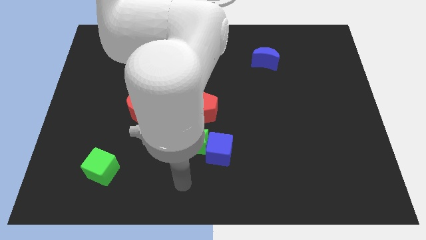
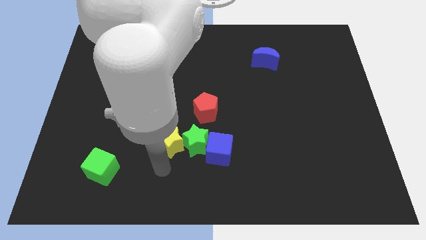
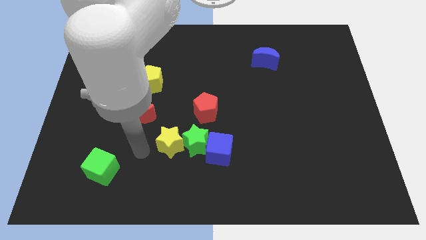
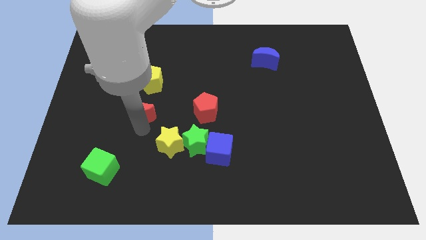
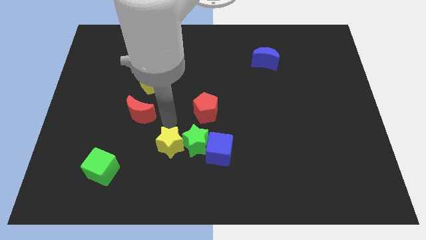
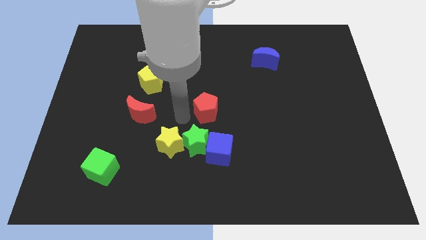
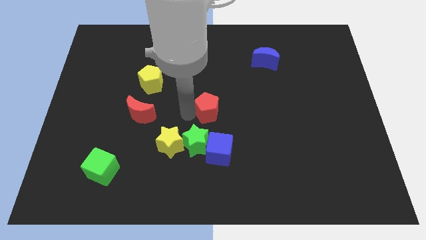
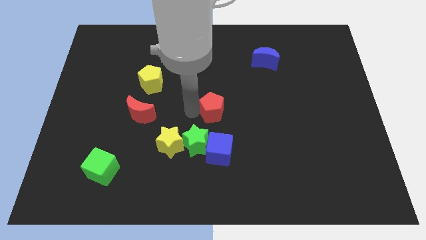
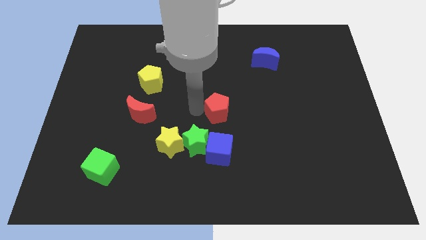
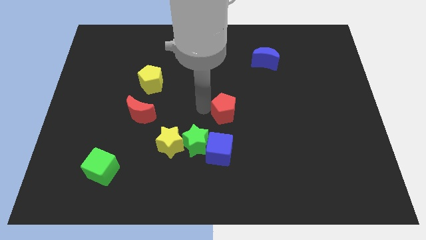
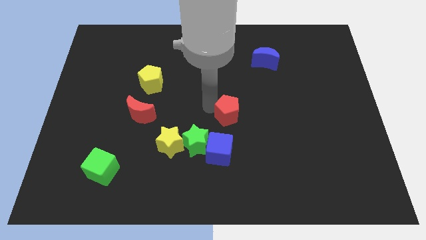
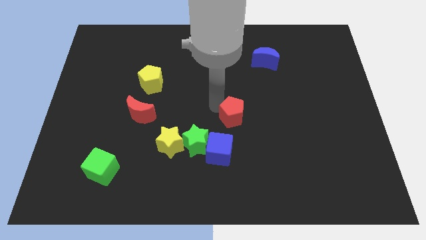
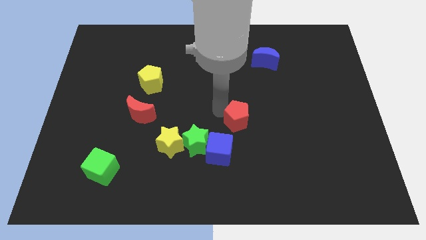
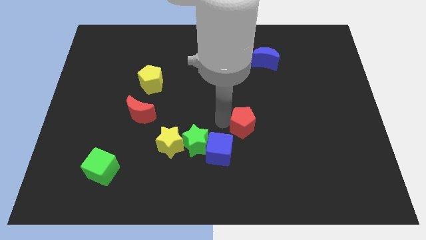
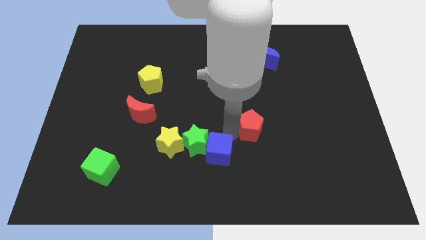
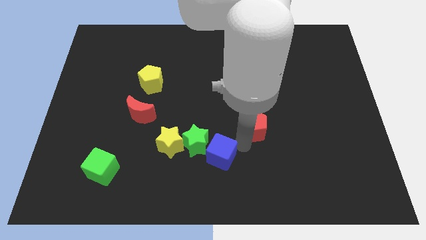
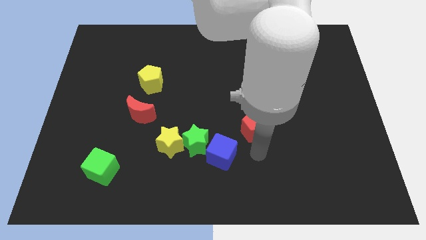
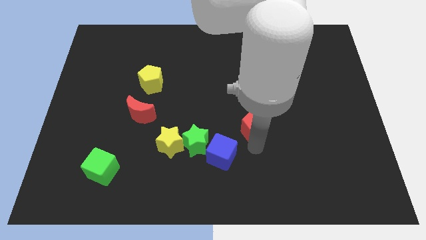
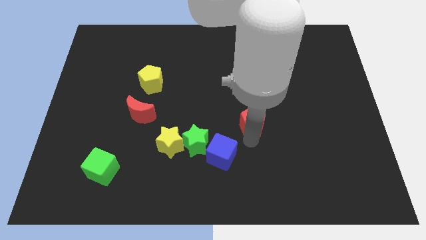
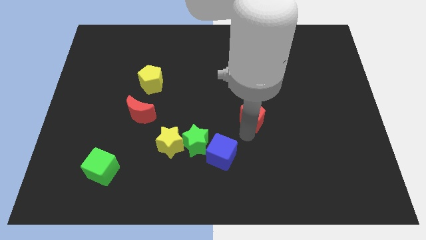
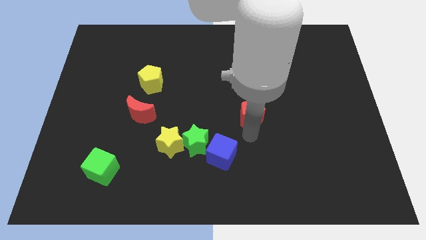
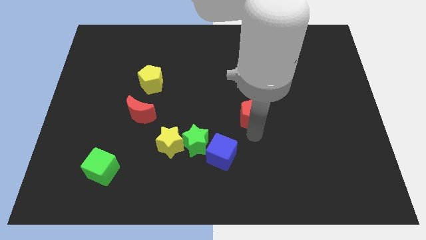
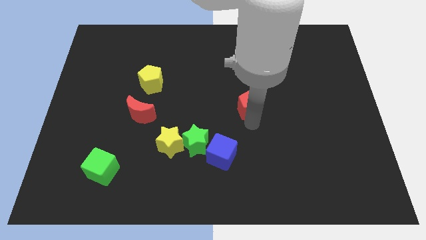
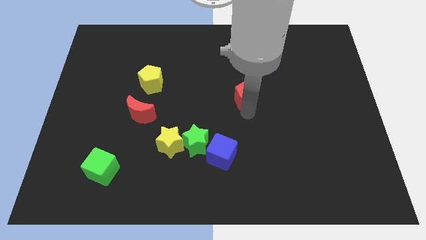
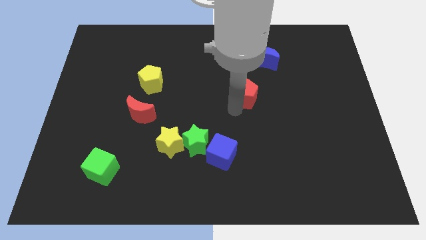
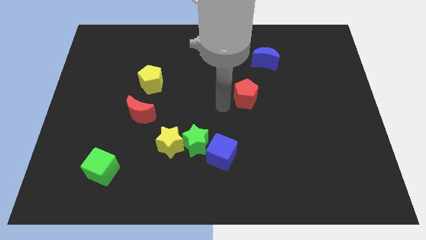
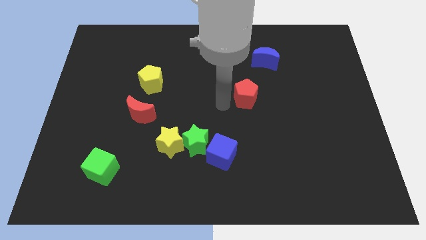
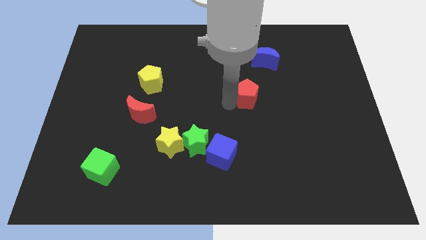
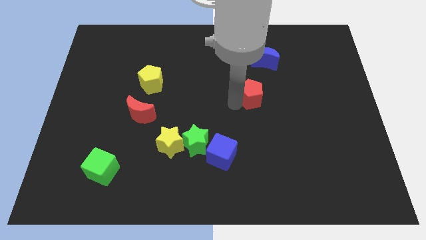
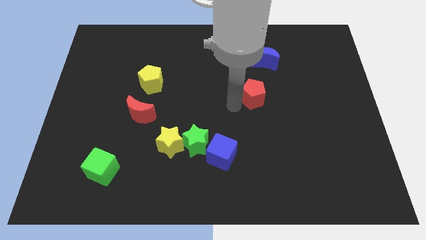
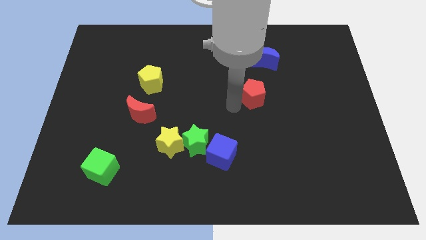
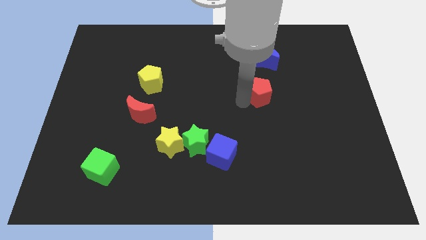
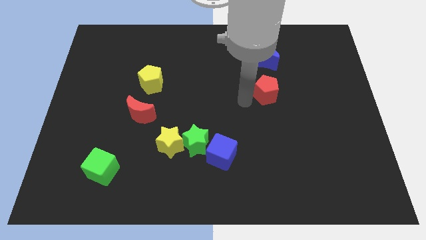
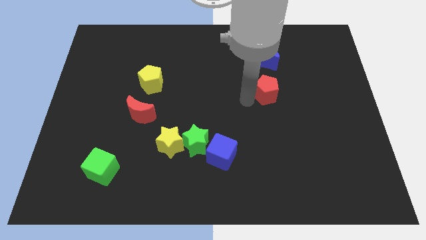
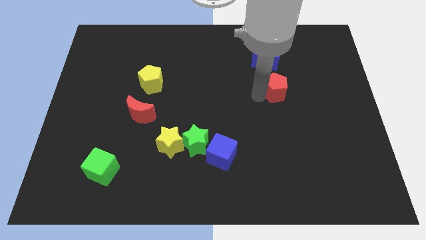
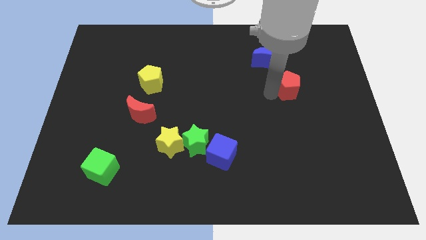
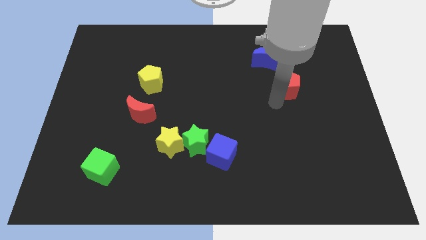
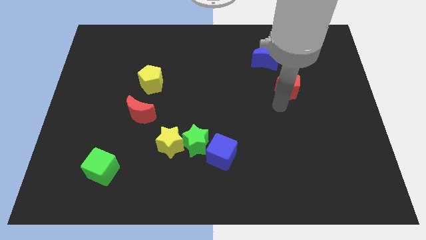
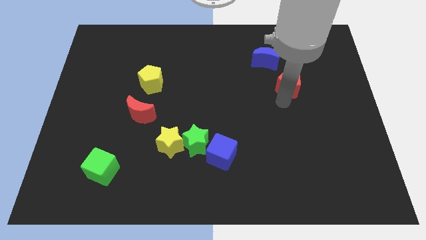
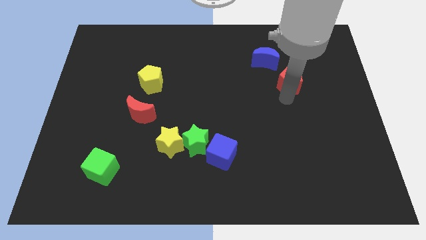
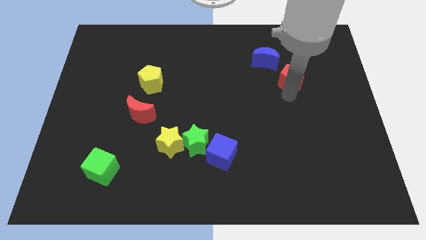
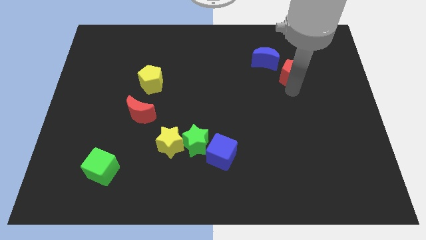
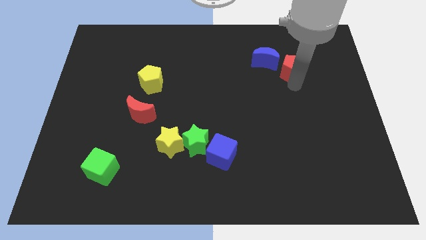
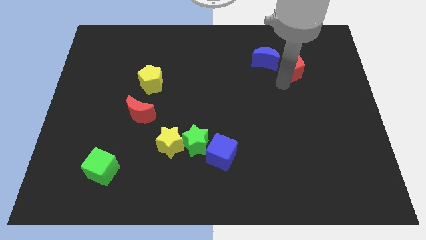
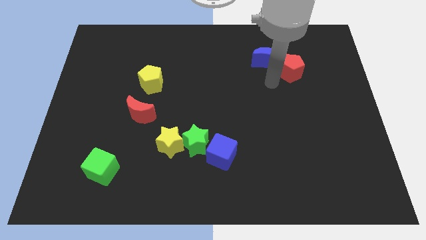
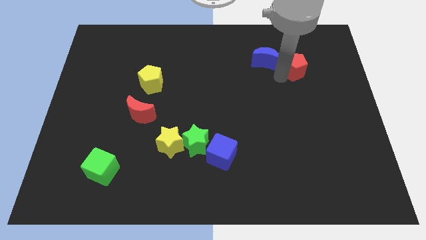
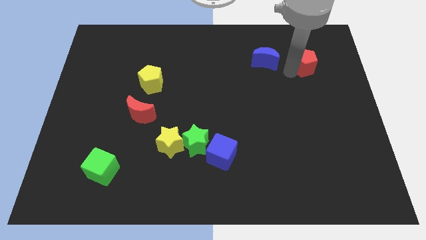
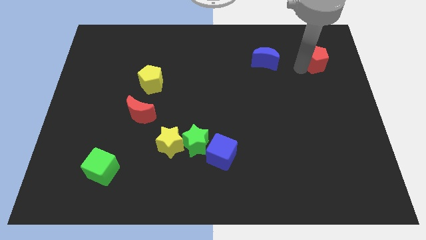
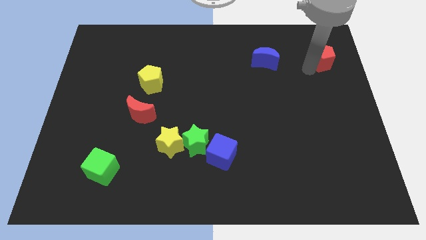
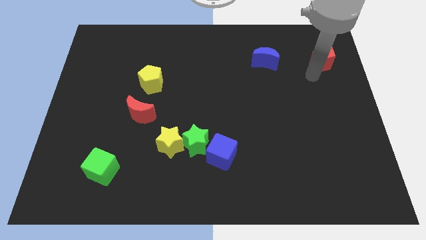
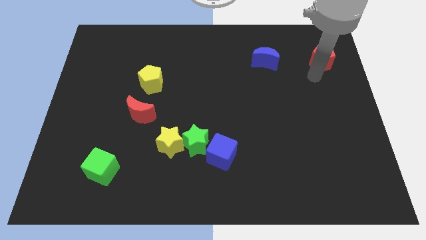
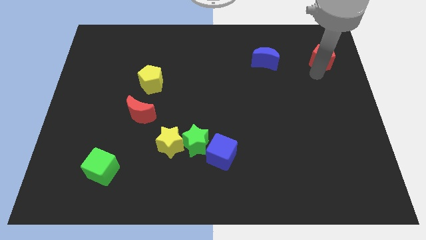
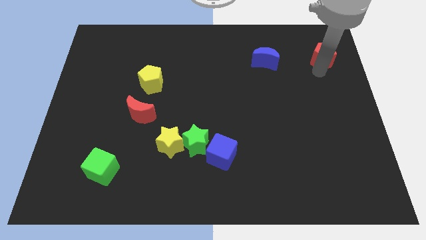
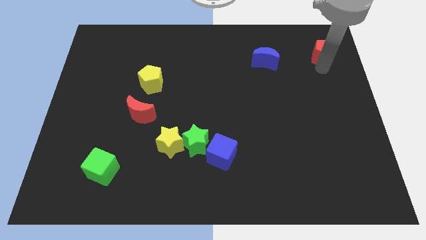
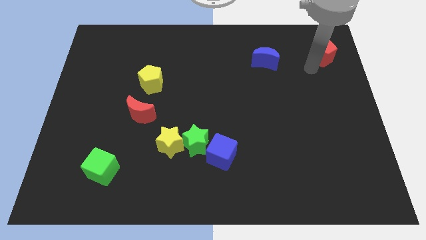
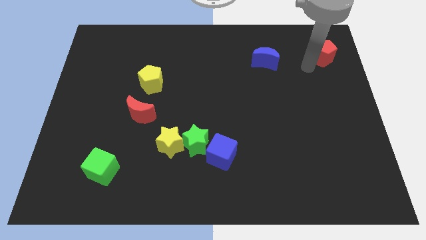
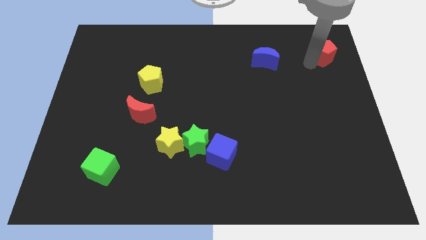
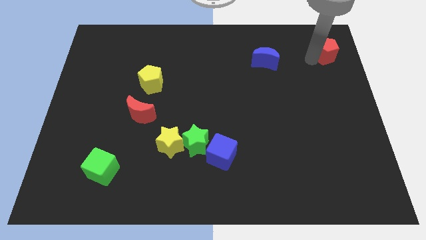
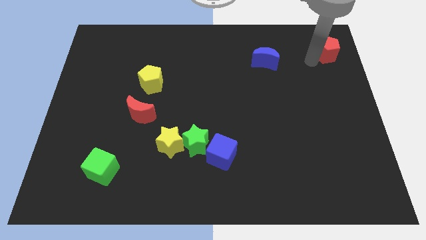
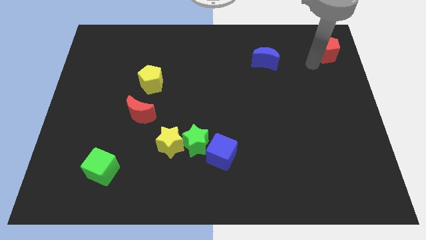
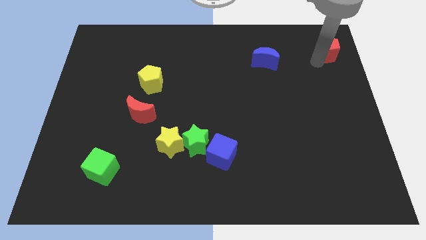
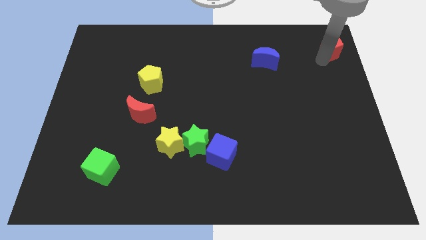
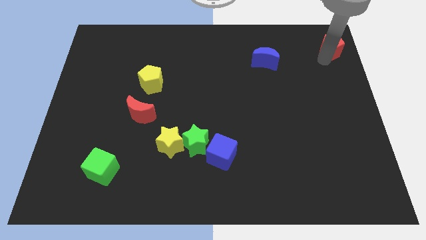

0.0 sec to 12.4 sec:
push the red pentagon to the top right corner
